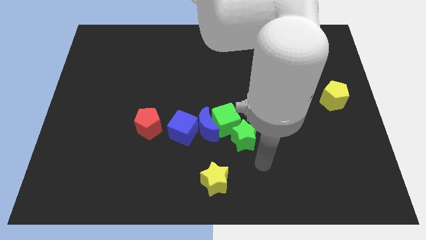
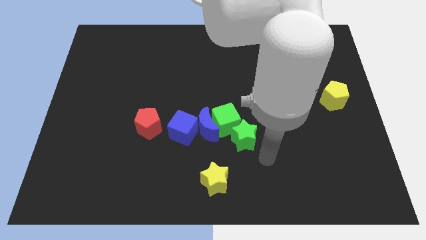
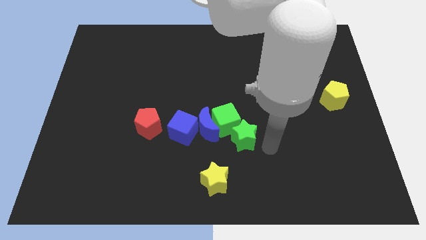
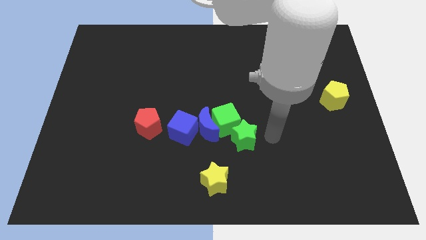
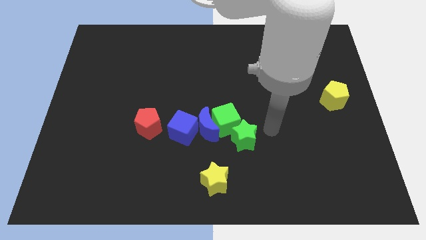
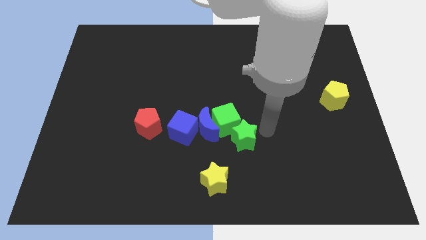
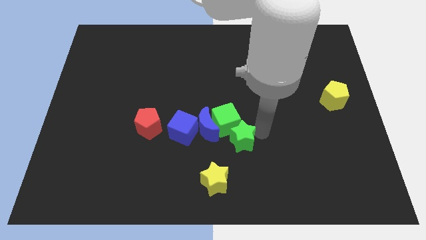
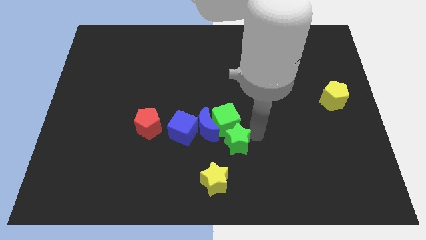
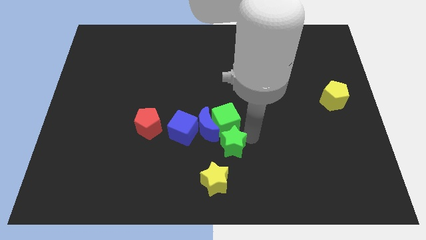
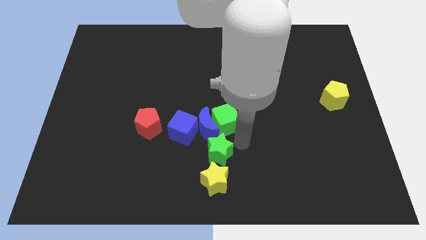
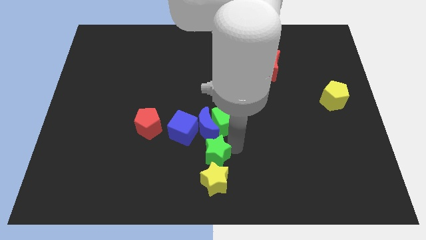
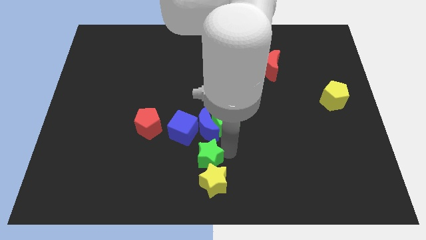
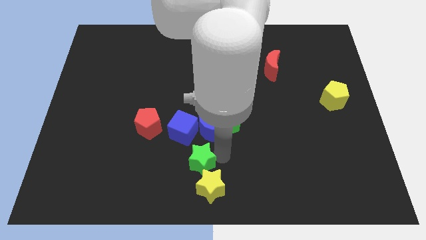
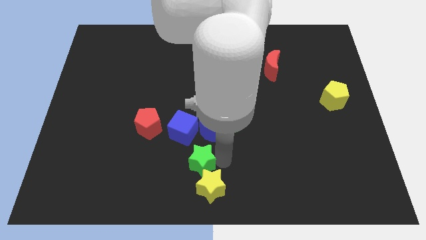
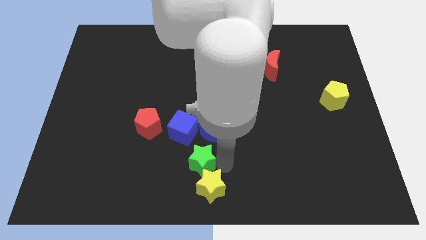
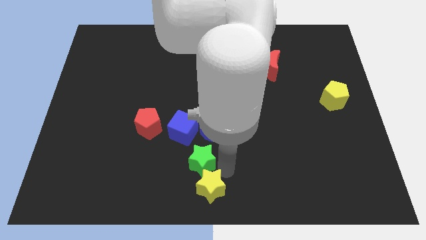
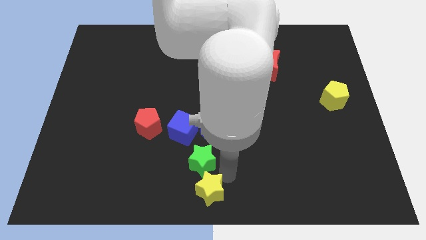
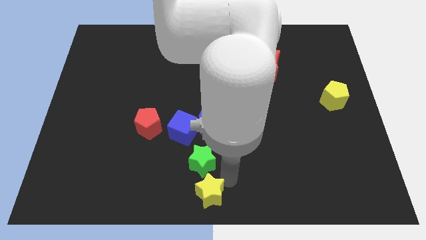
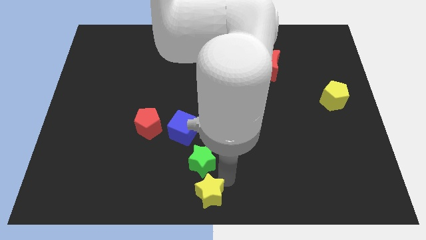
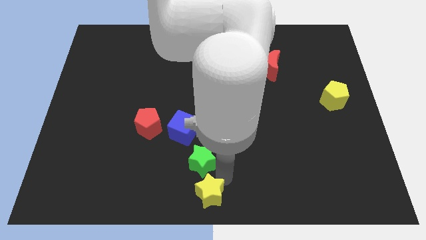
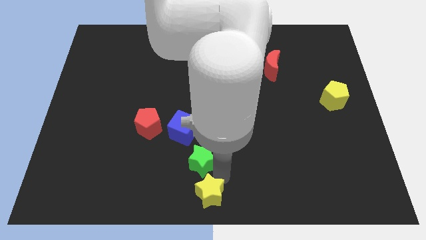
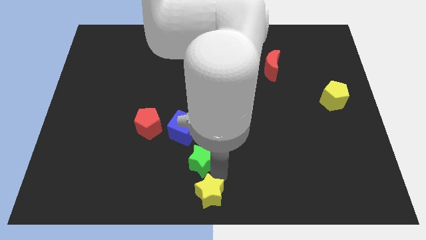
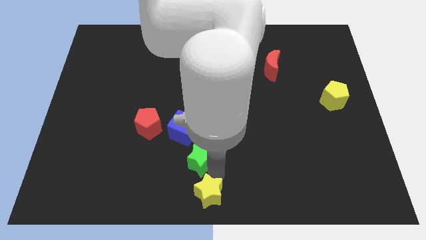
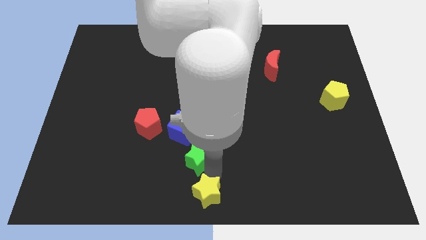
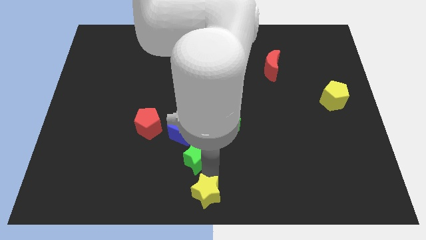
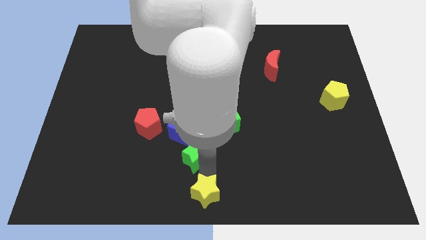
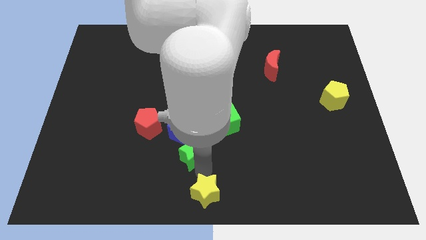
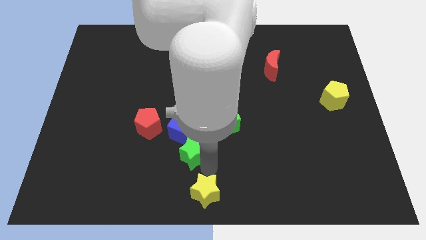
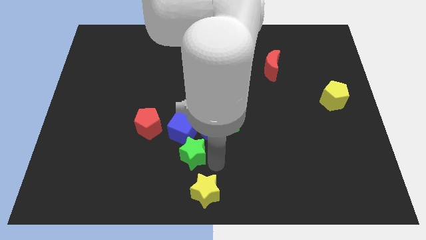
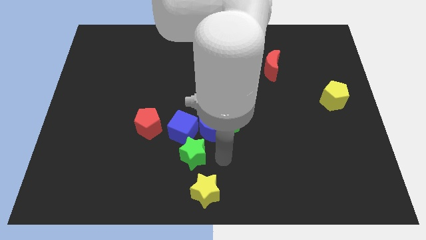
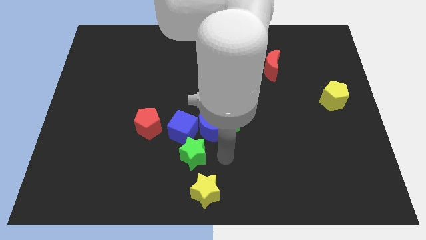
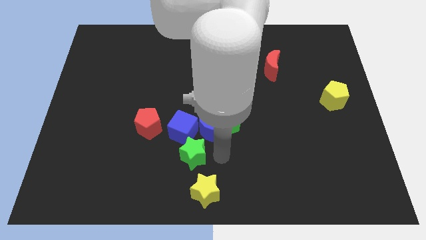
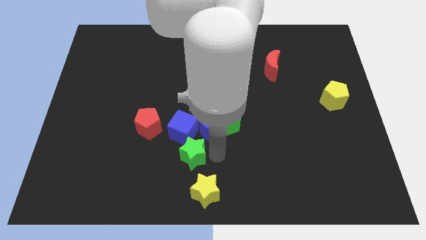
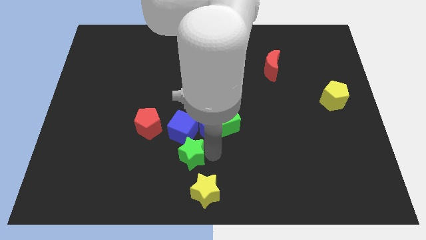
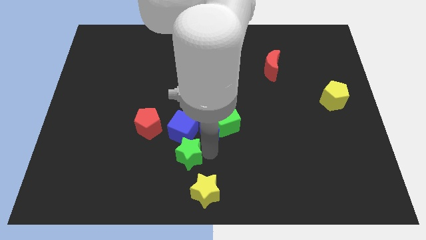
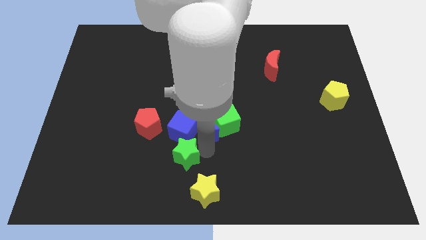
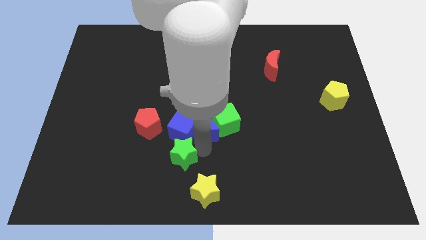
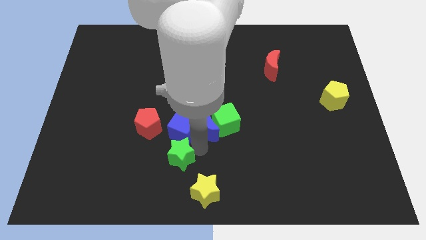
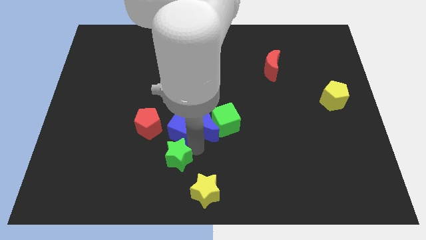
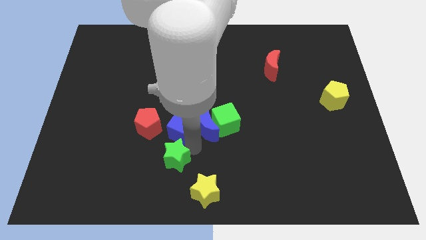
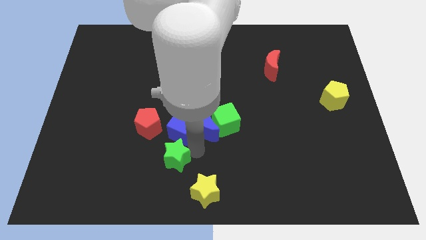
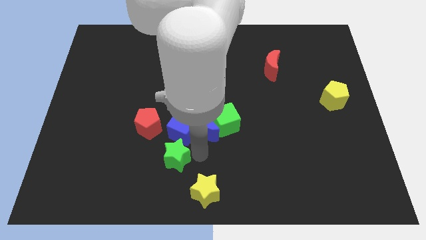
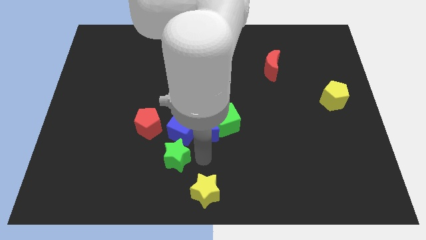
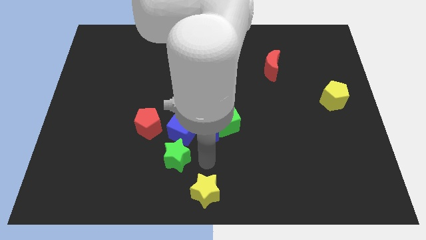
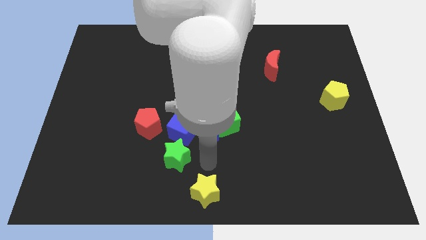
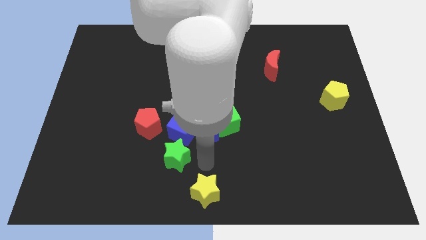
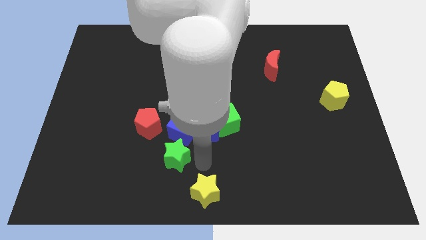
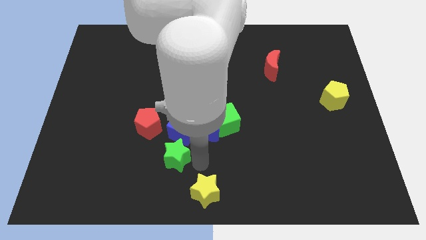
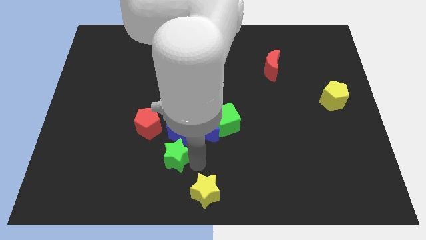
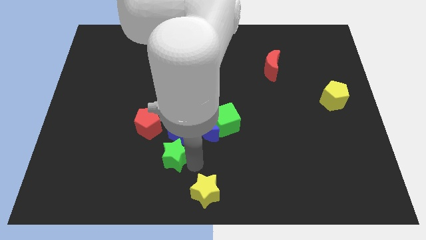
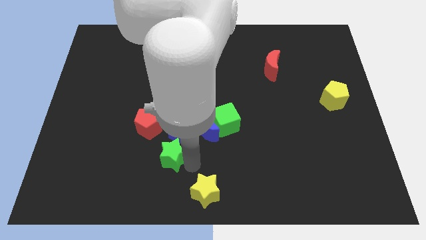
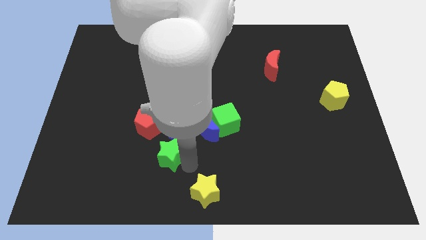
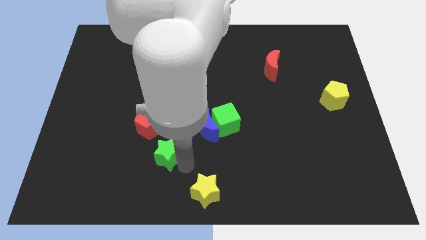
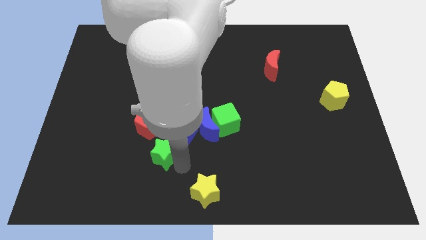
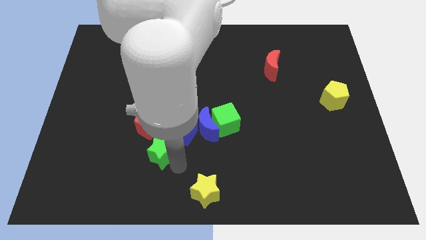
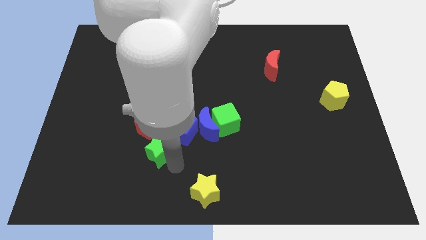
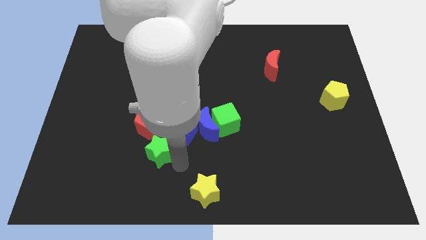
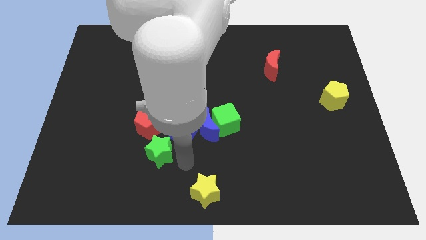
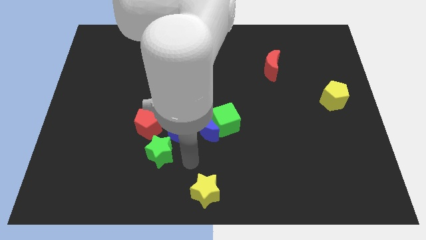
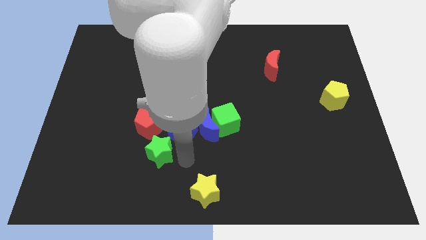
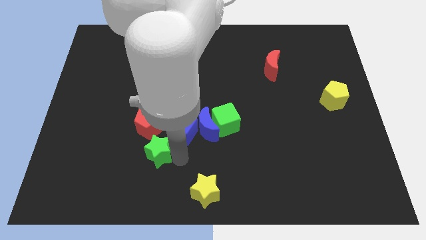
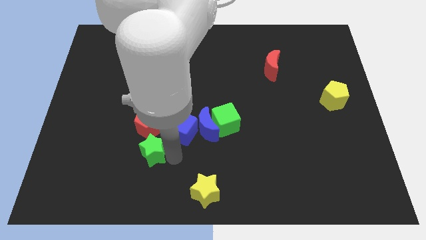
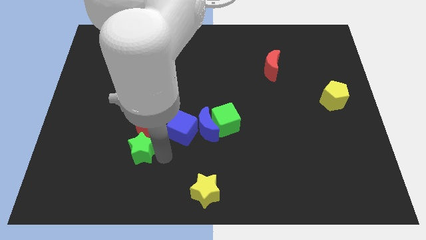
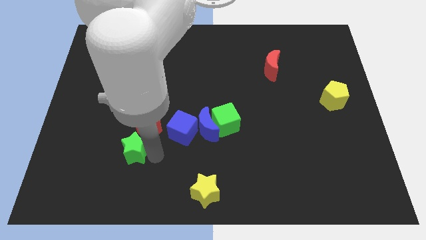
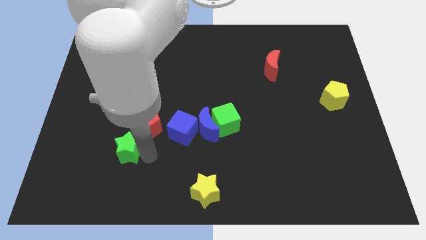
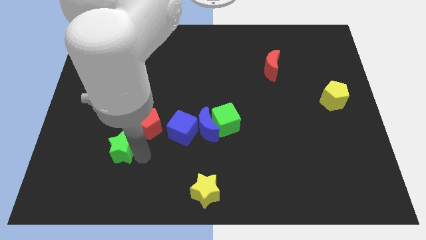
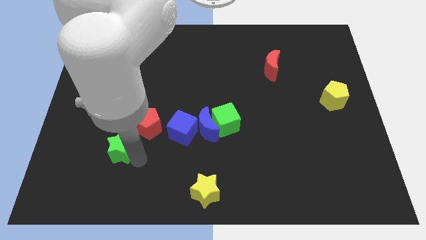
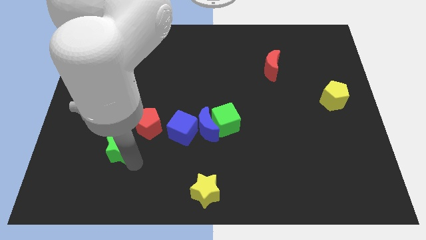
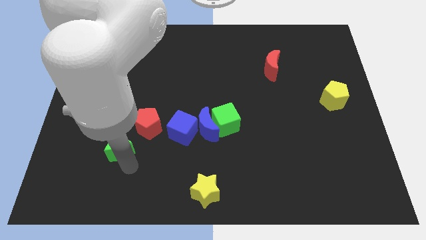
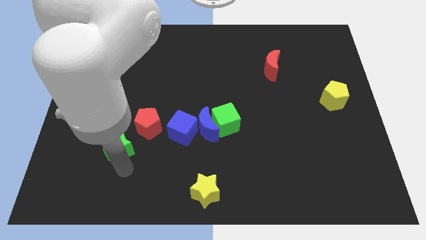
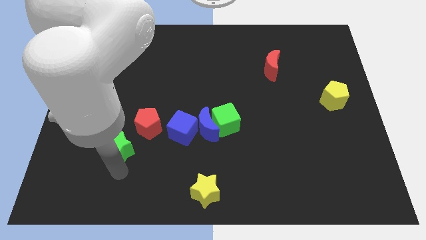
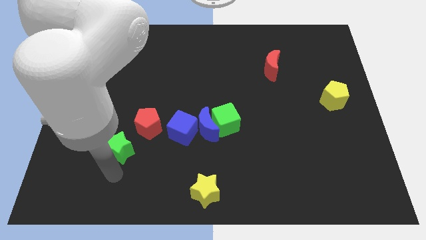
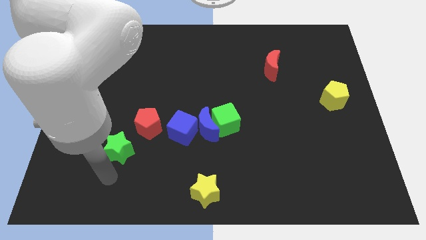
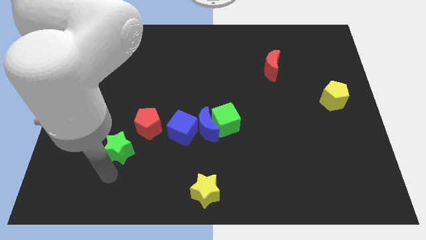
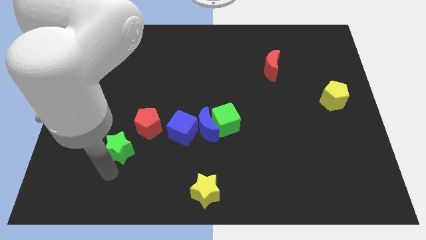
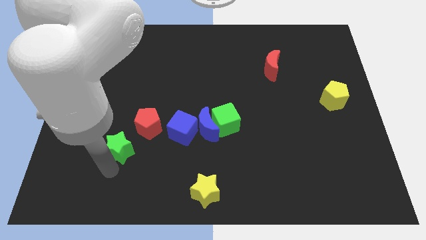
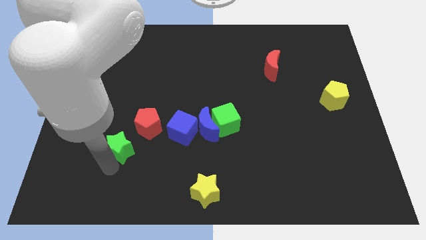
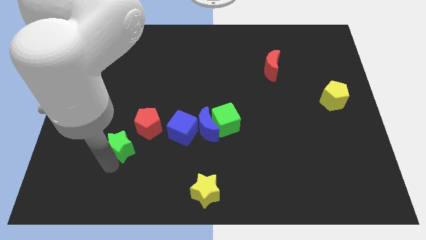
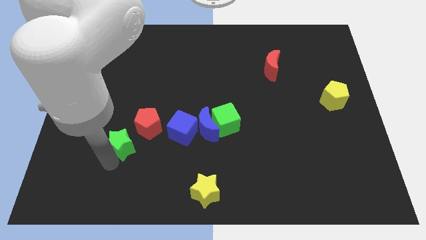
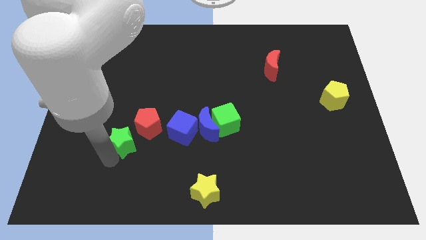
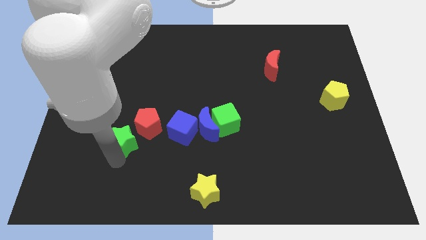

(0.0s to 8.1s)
put the green star to the left of the red pentagon
